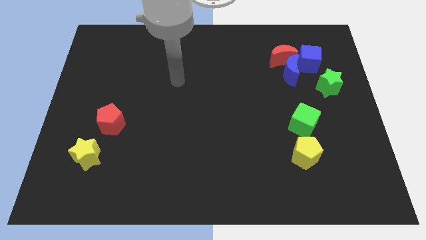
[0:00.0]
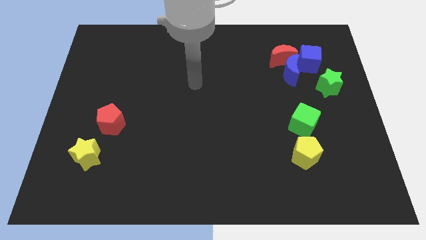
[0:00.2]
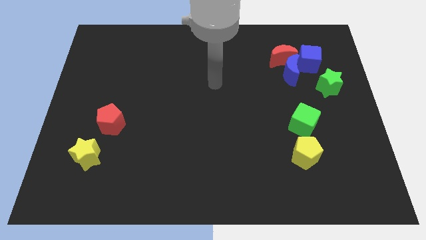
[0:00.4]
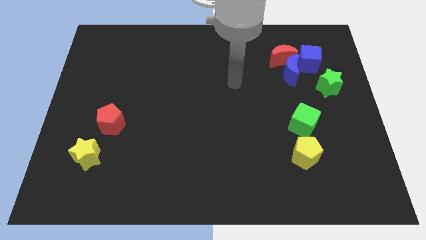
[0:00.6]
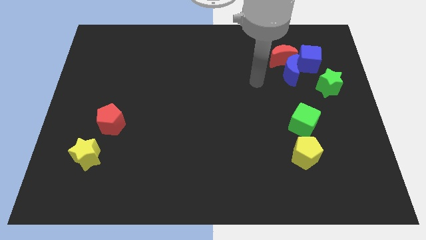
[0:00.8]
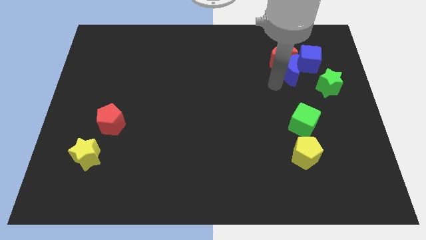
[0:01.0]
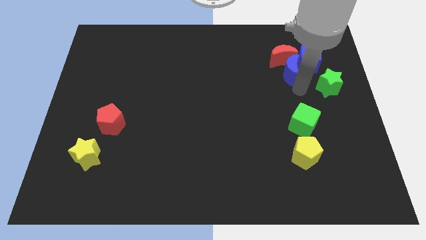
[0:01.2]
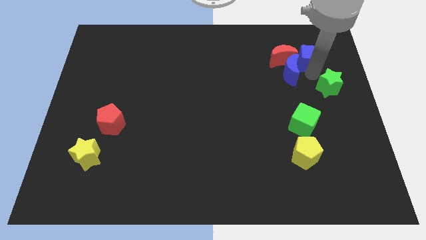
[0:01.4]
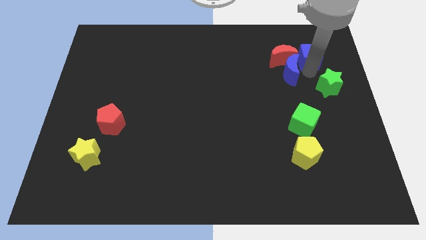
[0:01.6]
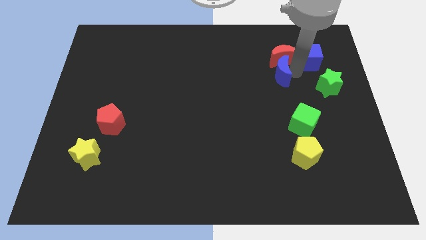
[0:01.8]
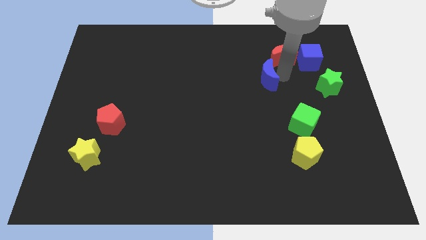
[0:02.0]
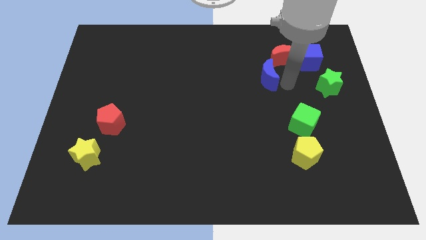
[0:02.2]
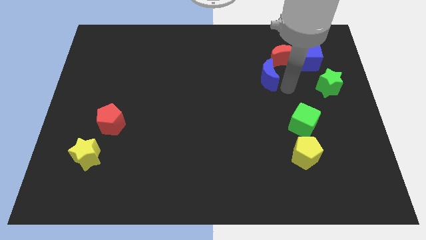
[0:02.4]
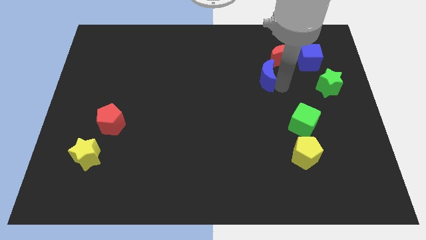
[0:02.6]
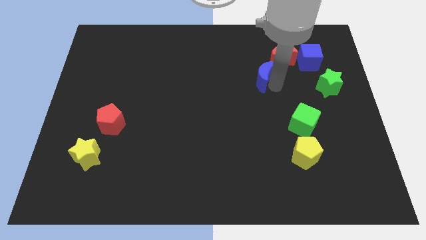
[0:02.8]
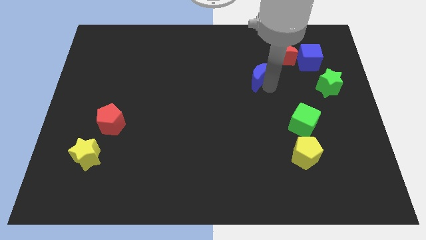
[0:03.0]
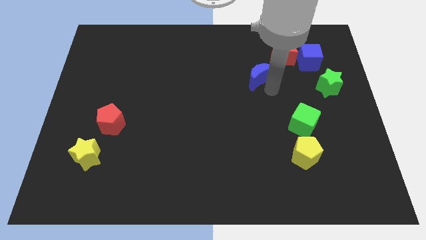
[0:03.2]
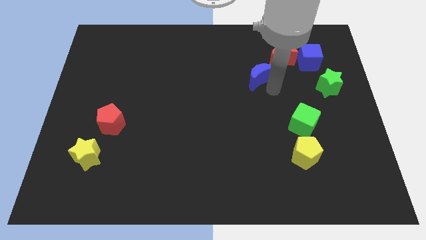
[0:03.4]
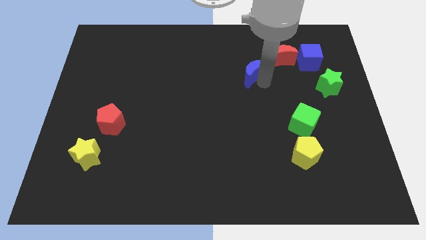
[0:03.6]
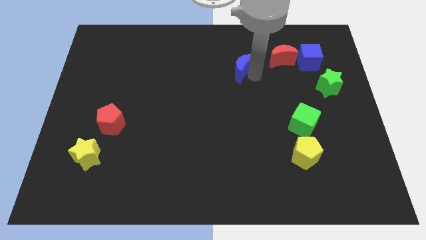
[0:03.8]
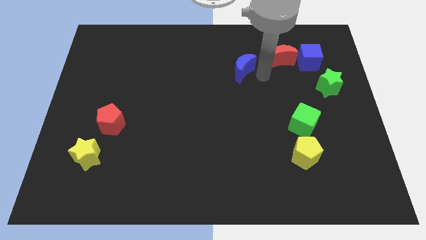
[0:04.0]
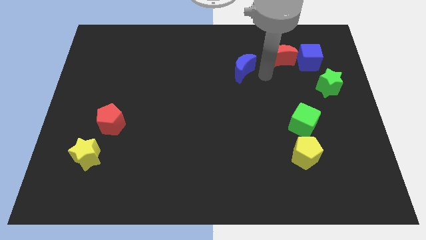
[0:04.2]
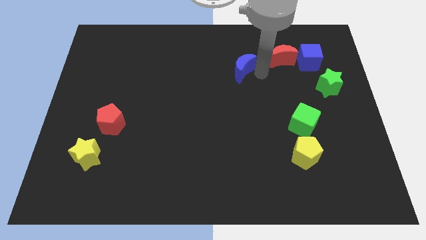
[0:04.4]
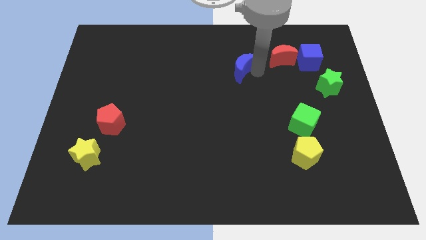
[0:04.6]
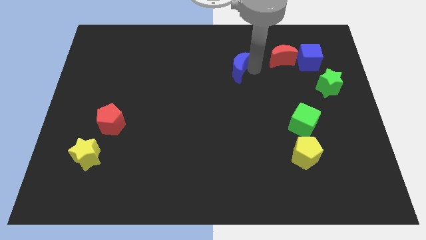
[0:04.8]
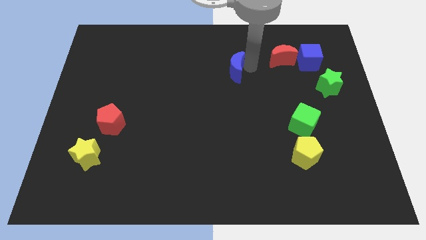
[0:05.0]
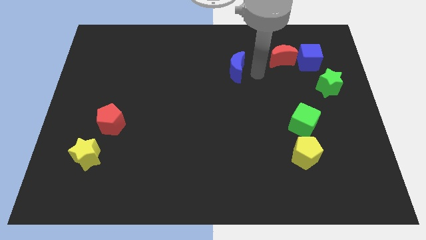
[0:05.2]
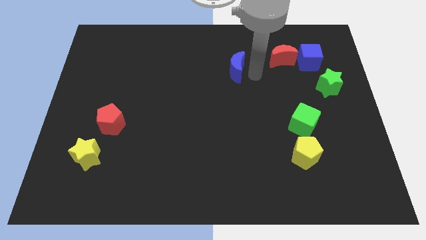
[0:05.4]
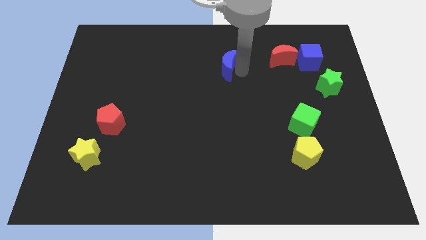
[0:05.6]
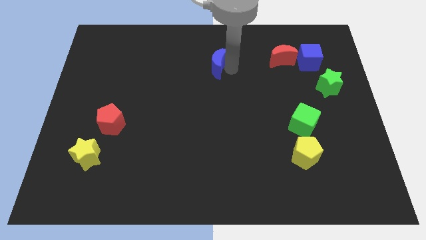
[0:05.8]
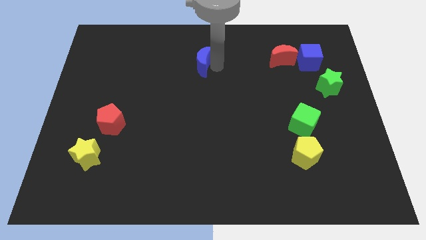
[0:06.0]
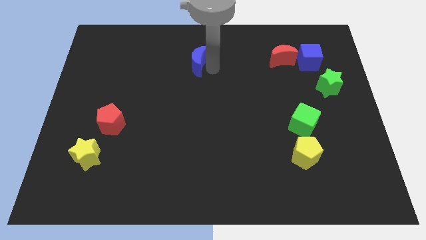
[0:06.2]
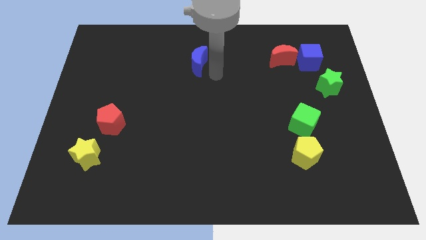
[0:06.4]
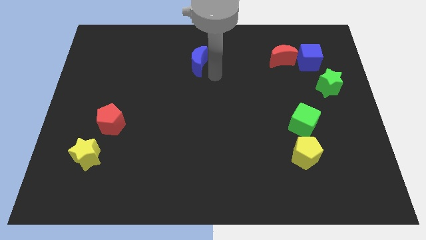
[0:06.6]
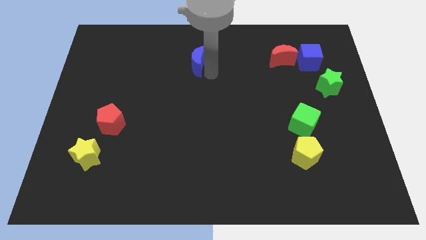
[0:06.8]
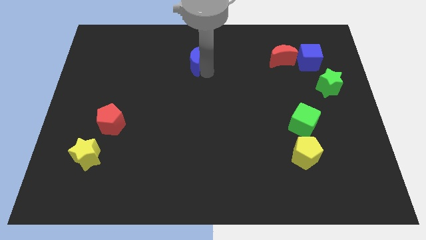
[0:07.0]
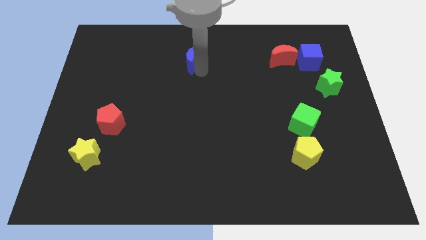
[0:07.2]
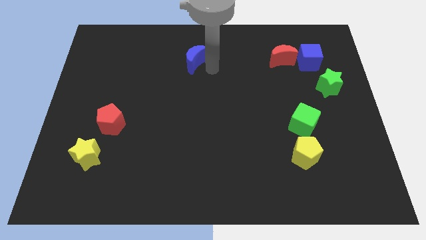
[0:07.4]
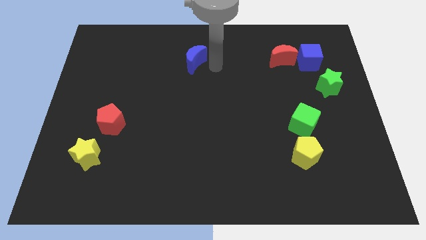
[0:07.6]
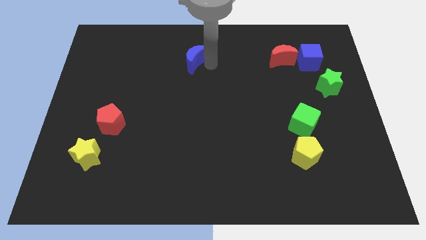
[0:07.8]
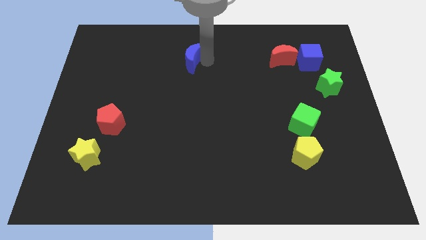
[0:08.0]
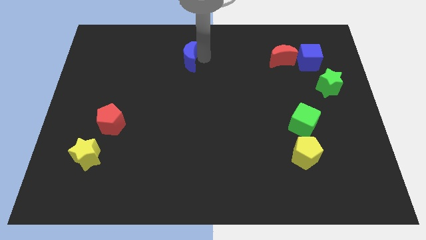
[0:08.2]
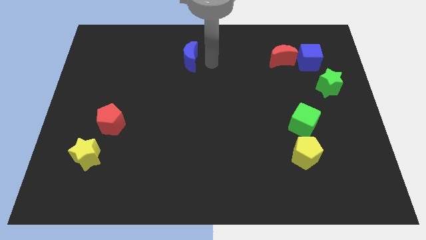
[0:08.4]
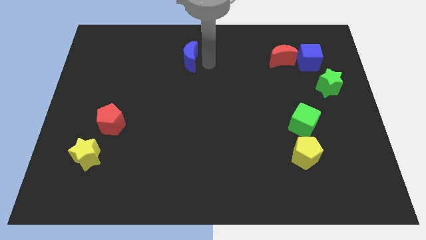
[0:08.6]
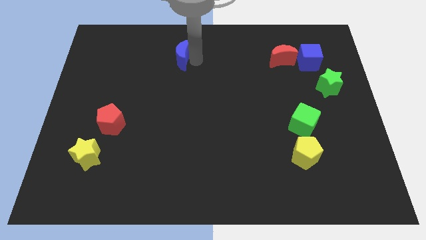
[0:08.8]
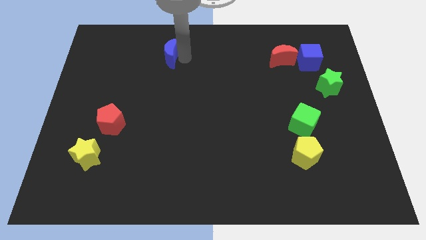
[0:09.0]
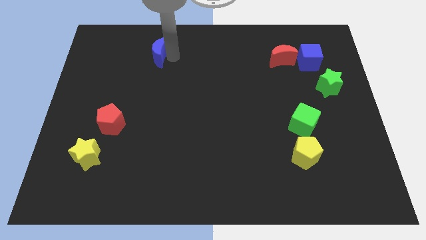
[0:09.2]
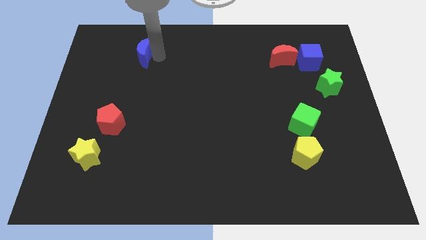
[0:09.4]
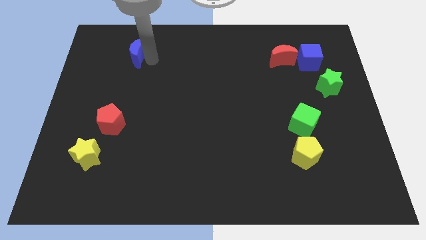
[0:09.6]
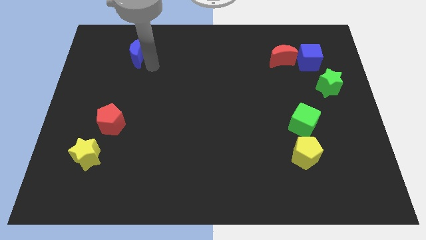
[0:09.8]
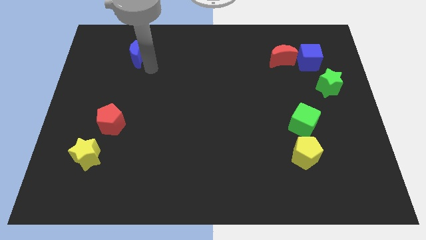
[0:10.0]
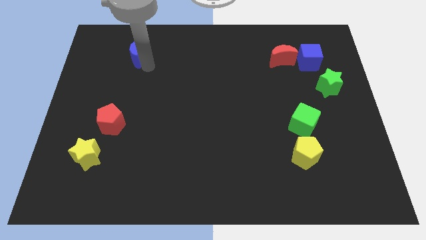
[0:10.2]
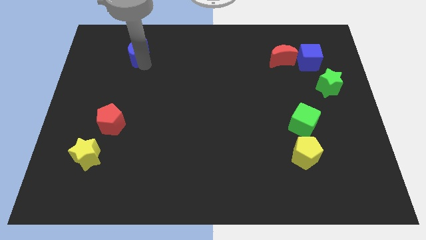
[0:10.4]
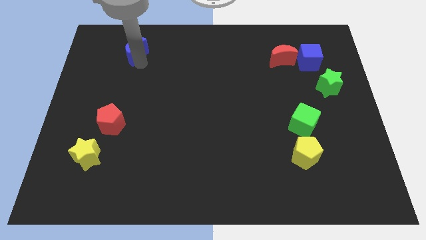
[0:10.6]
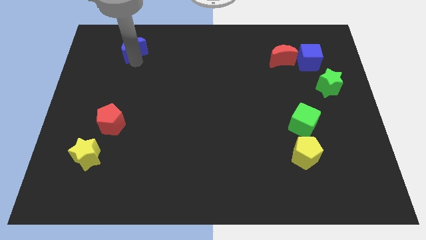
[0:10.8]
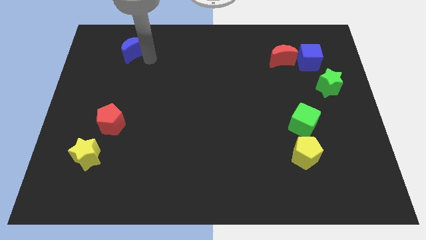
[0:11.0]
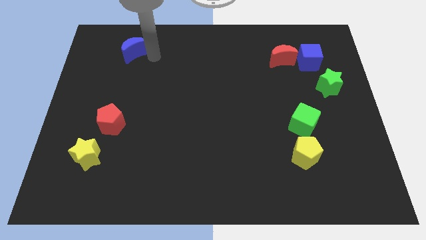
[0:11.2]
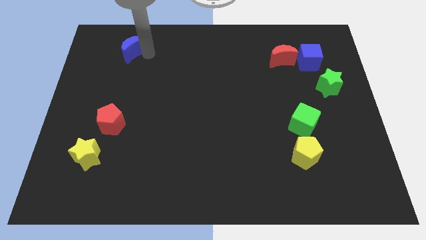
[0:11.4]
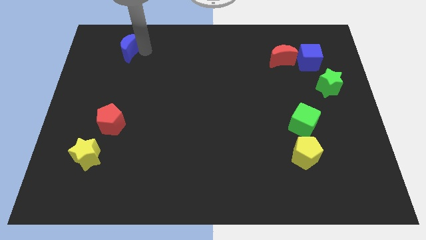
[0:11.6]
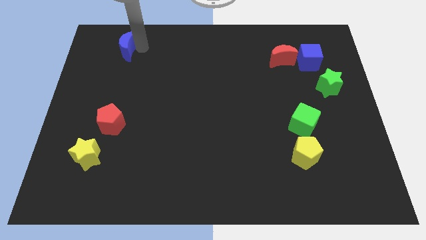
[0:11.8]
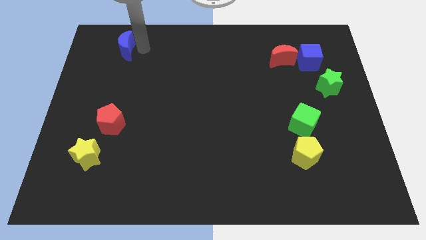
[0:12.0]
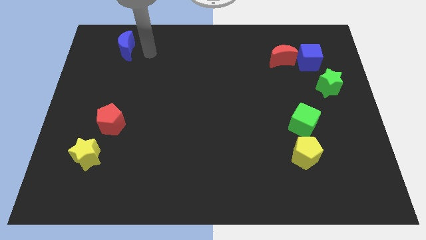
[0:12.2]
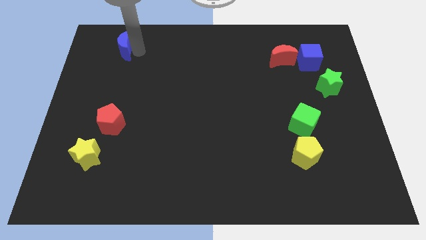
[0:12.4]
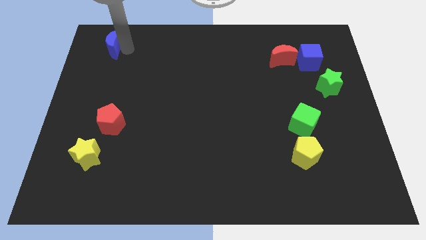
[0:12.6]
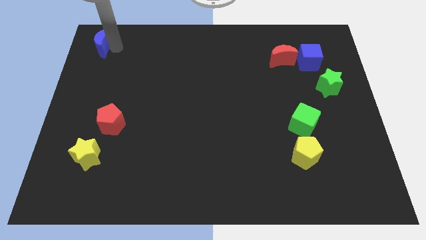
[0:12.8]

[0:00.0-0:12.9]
put the blue moon to the top left

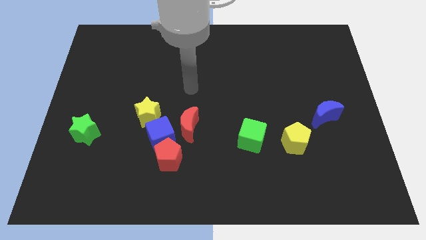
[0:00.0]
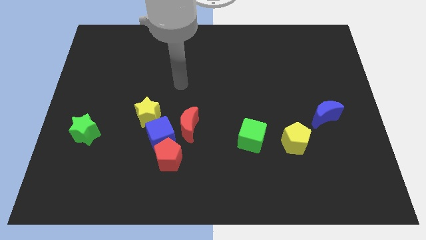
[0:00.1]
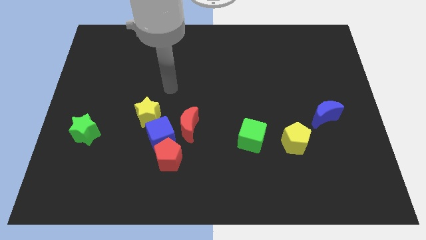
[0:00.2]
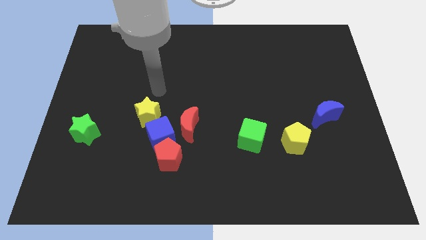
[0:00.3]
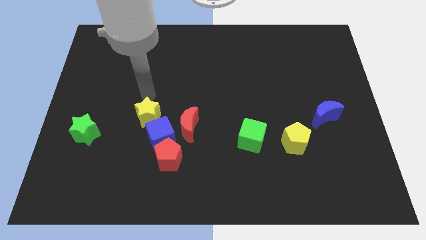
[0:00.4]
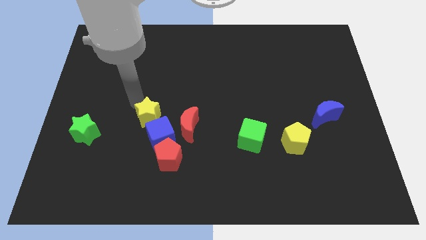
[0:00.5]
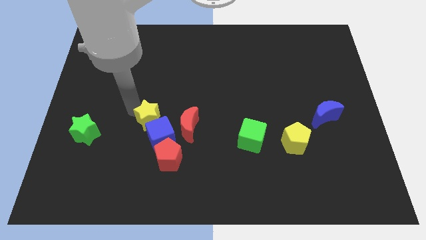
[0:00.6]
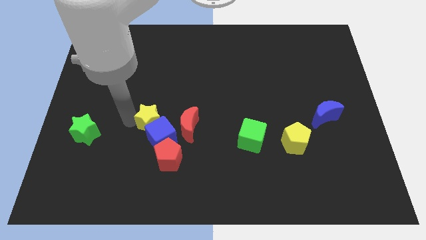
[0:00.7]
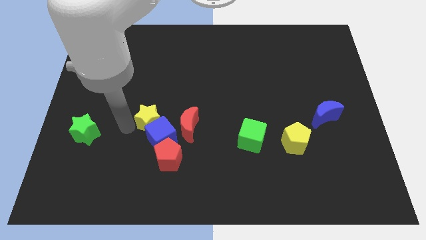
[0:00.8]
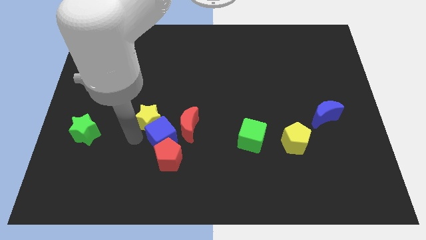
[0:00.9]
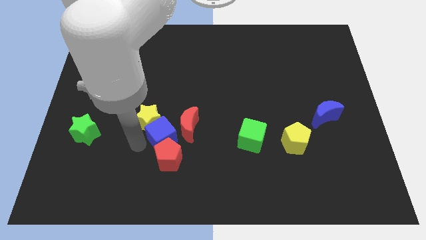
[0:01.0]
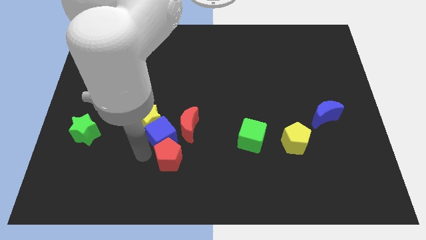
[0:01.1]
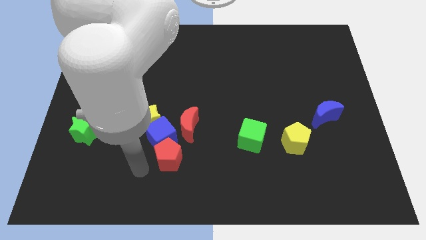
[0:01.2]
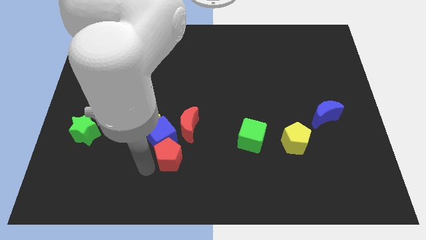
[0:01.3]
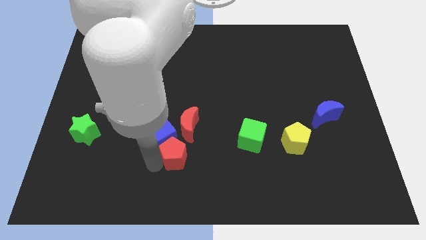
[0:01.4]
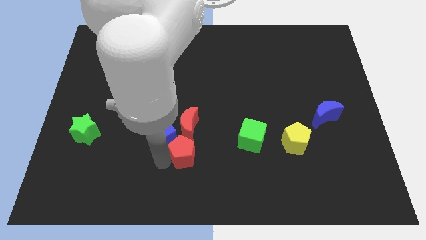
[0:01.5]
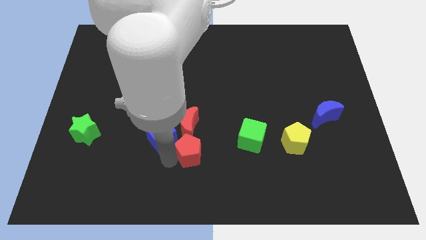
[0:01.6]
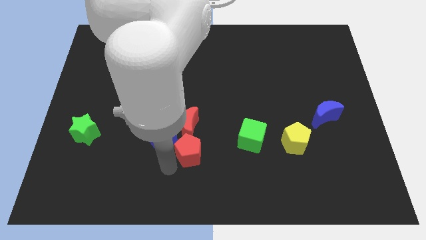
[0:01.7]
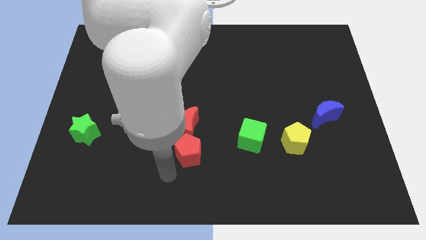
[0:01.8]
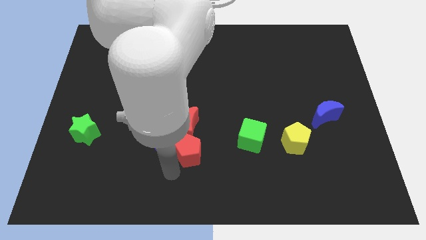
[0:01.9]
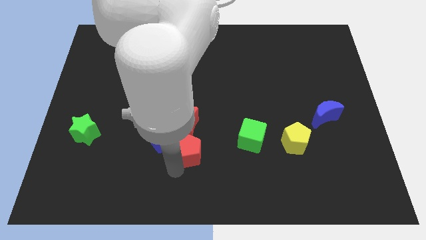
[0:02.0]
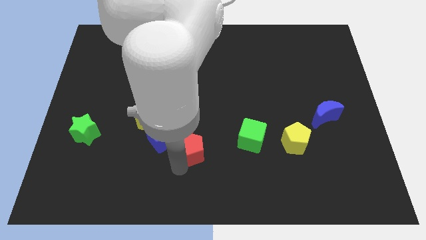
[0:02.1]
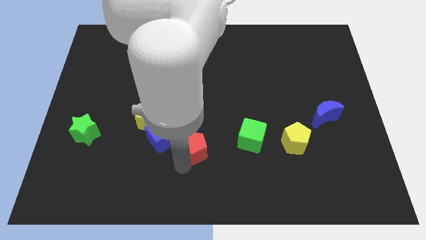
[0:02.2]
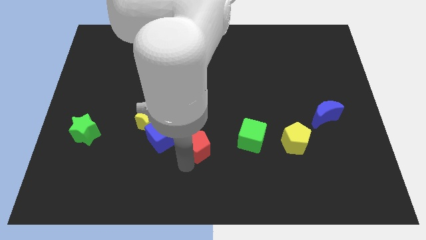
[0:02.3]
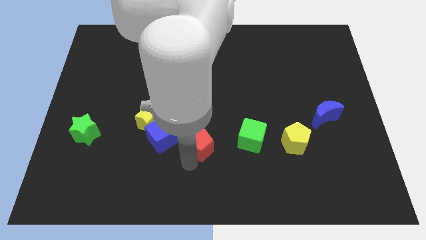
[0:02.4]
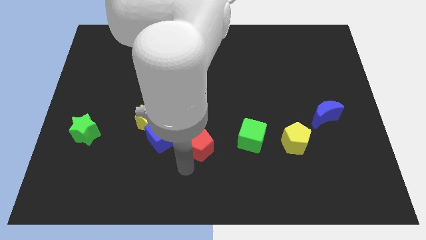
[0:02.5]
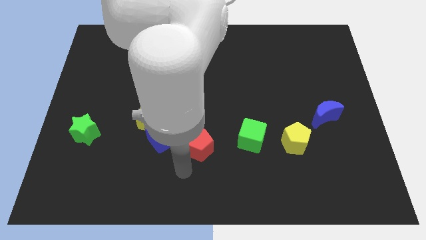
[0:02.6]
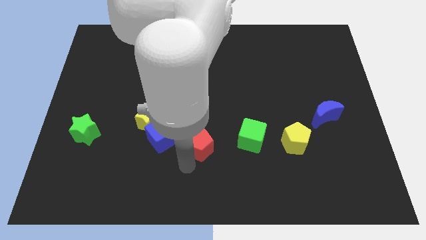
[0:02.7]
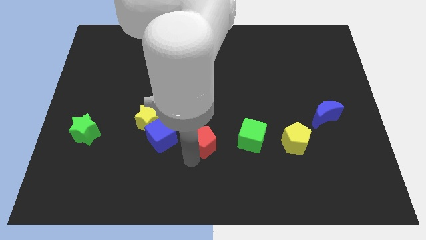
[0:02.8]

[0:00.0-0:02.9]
push the red pentagon to the center
